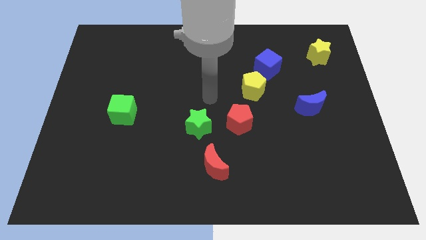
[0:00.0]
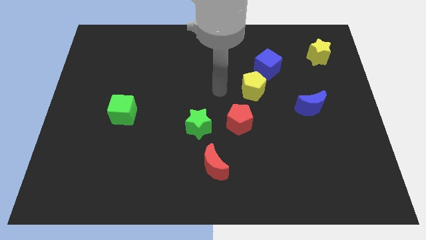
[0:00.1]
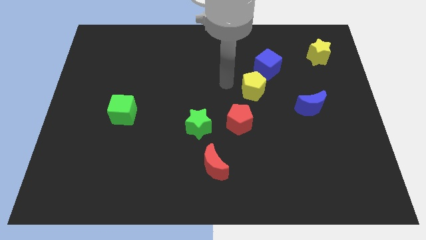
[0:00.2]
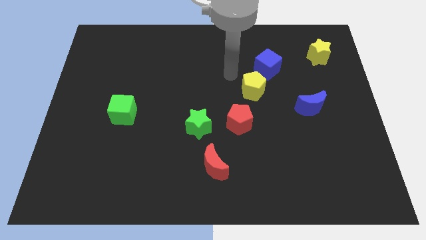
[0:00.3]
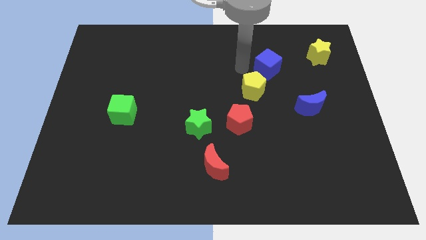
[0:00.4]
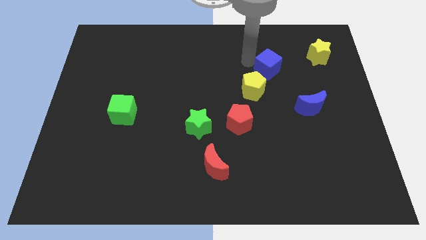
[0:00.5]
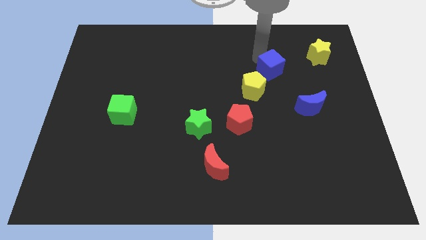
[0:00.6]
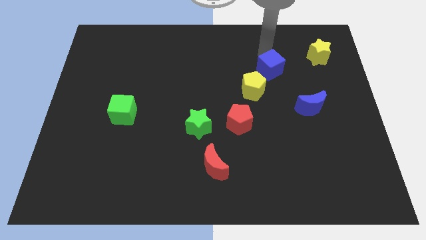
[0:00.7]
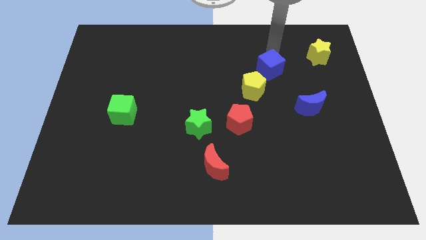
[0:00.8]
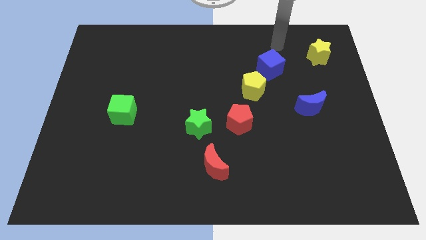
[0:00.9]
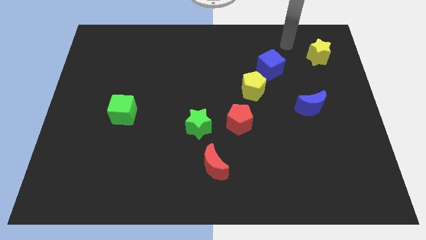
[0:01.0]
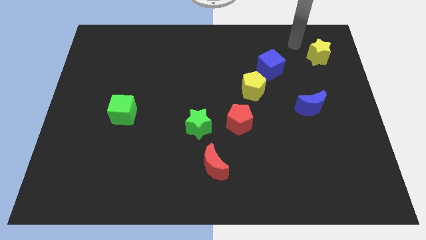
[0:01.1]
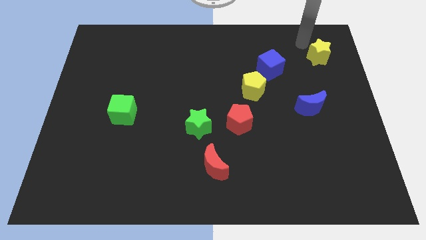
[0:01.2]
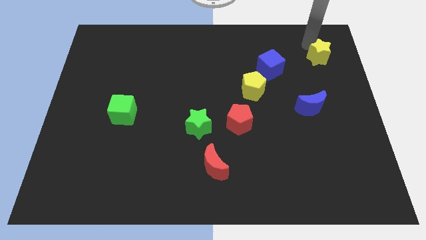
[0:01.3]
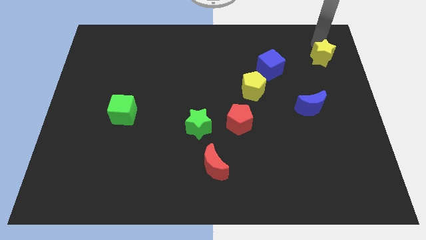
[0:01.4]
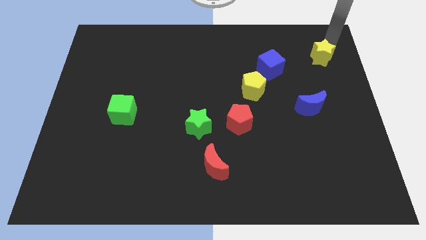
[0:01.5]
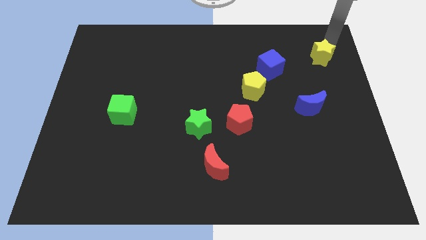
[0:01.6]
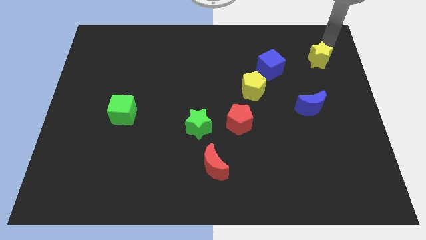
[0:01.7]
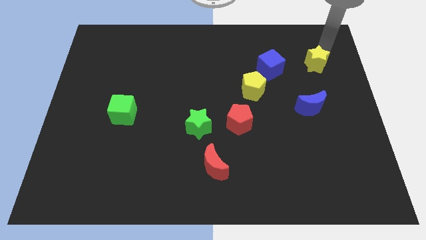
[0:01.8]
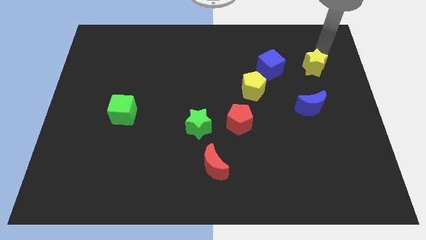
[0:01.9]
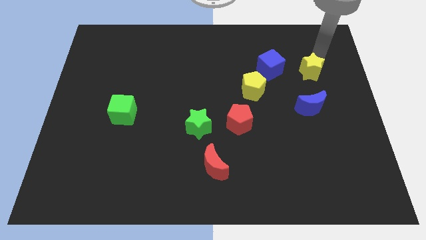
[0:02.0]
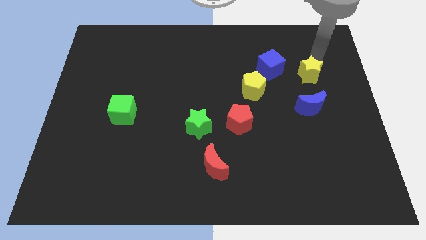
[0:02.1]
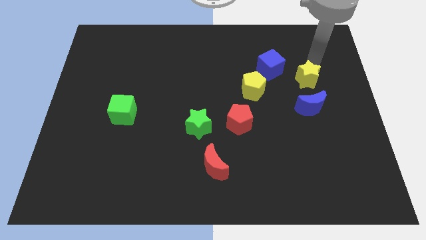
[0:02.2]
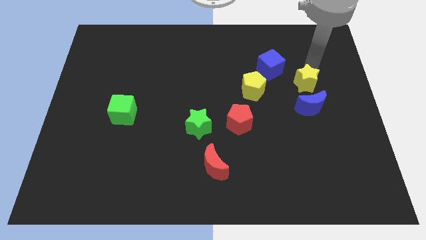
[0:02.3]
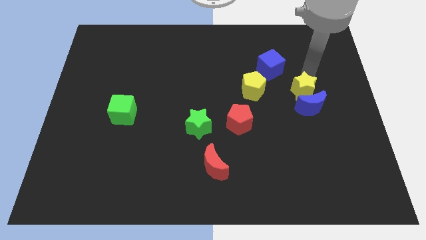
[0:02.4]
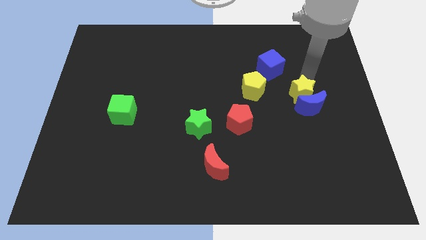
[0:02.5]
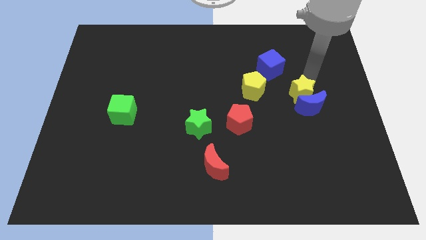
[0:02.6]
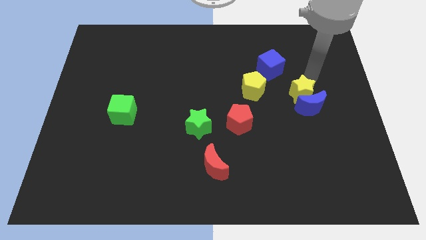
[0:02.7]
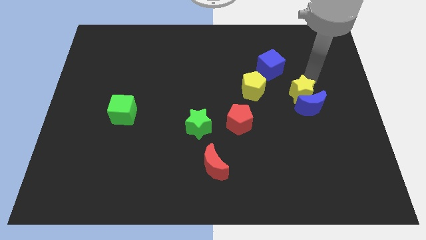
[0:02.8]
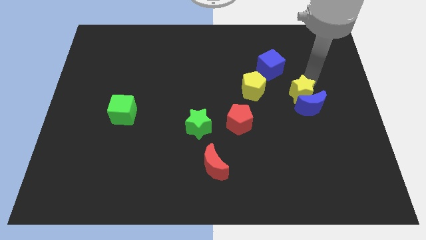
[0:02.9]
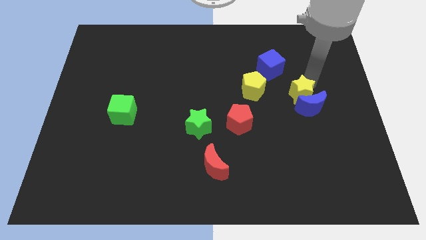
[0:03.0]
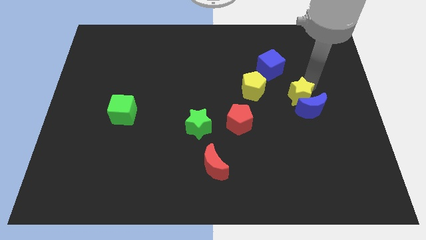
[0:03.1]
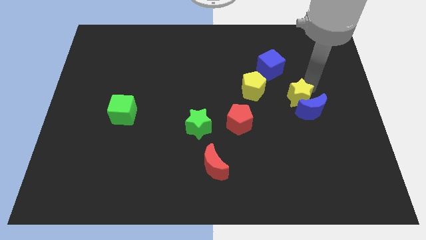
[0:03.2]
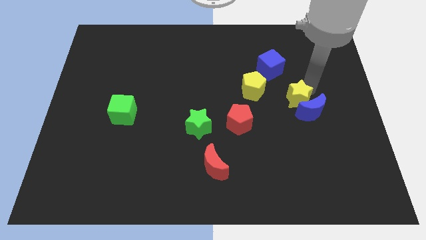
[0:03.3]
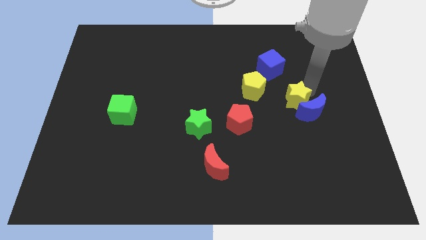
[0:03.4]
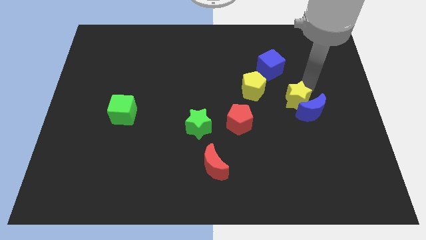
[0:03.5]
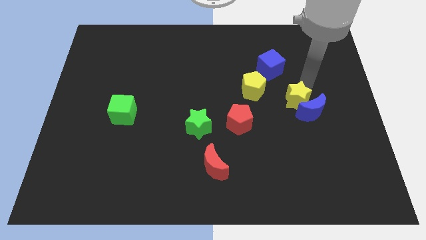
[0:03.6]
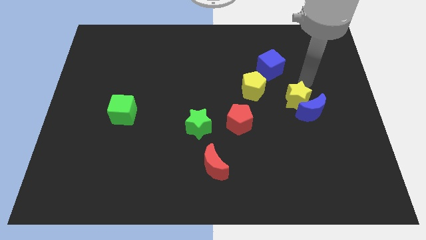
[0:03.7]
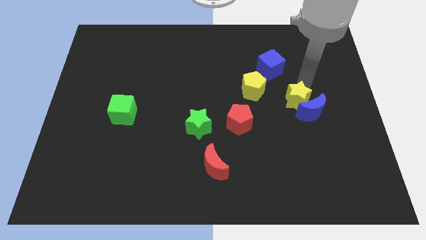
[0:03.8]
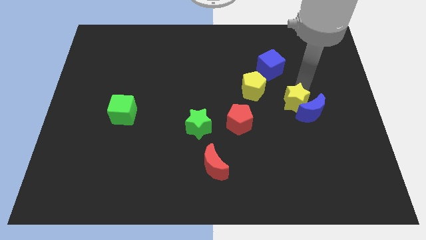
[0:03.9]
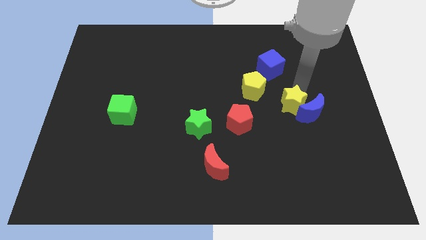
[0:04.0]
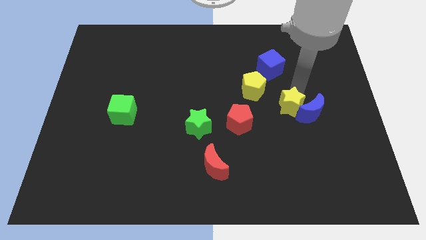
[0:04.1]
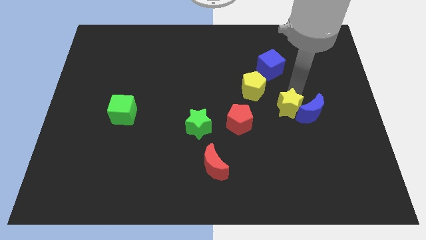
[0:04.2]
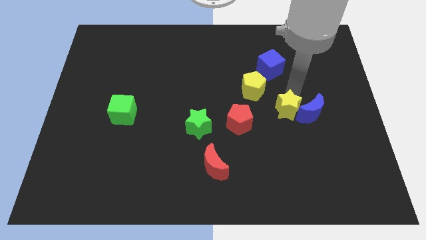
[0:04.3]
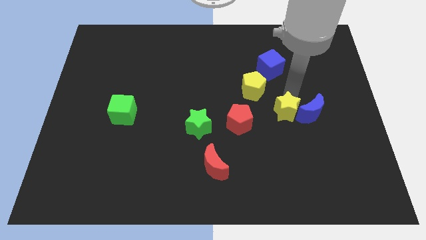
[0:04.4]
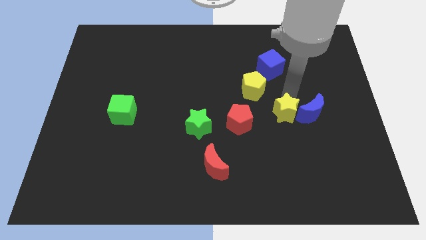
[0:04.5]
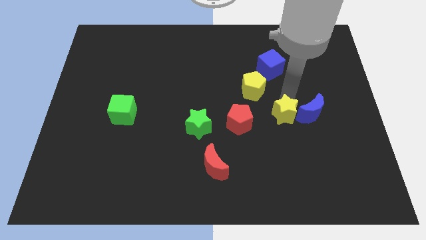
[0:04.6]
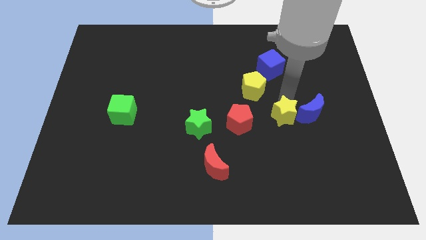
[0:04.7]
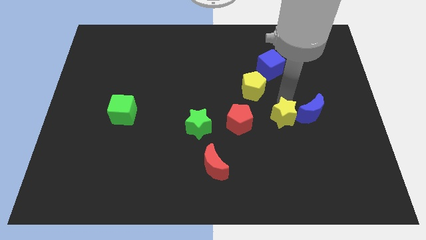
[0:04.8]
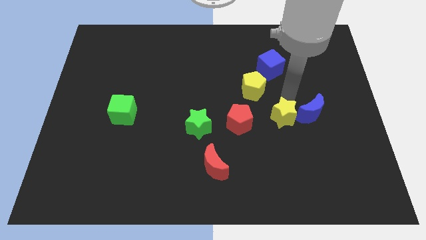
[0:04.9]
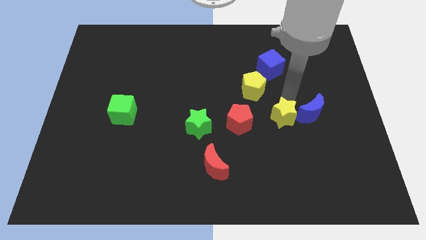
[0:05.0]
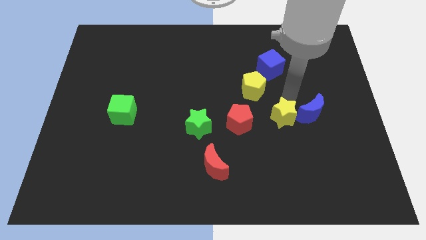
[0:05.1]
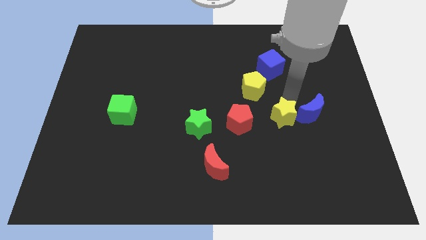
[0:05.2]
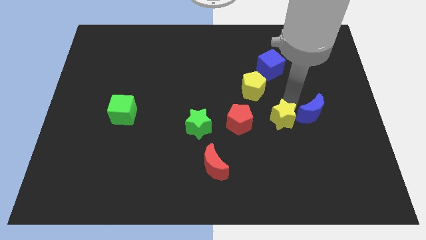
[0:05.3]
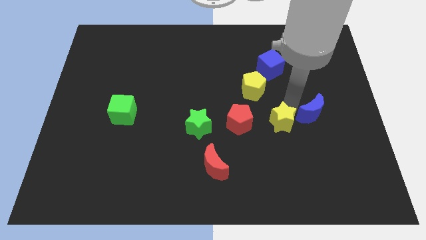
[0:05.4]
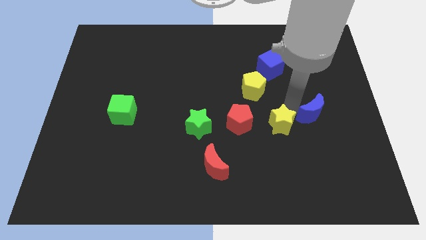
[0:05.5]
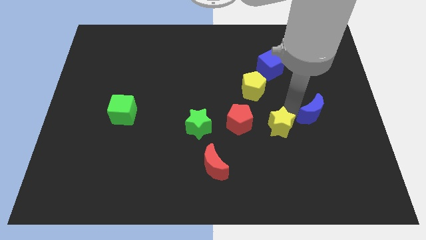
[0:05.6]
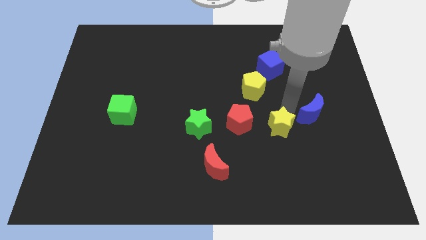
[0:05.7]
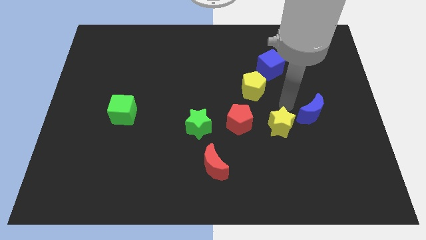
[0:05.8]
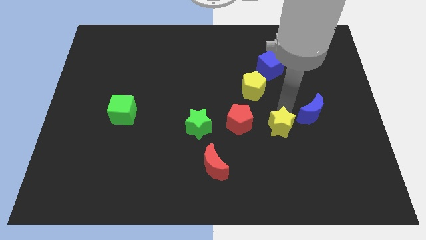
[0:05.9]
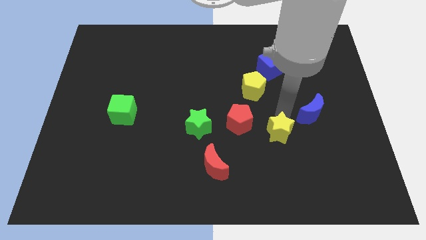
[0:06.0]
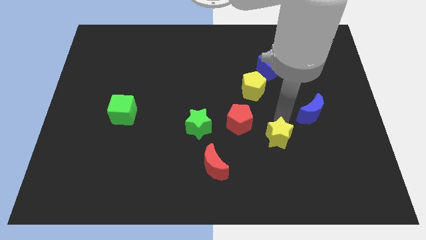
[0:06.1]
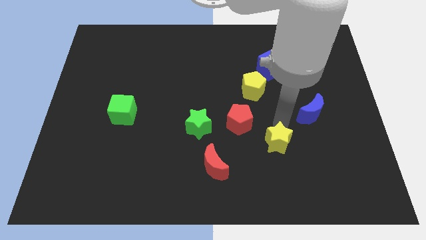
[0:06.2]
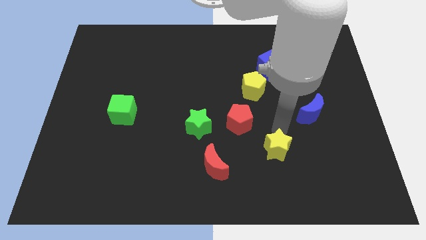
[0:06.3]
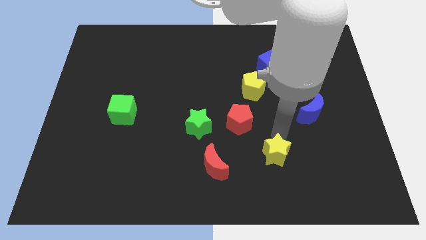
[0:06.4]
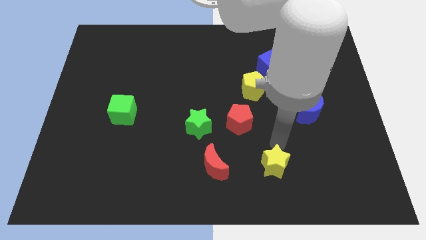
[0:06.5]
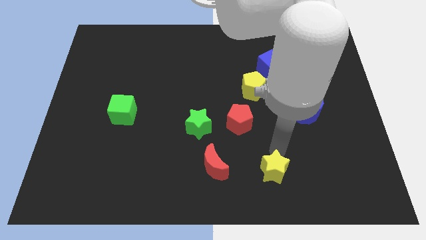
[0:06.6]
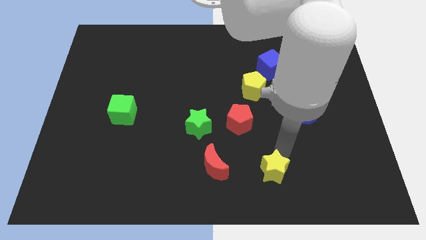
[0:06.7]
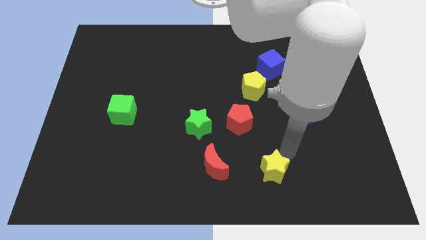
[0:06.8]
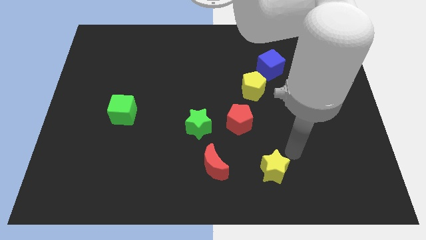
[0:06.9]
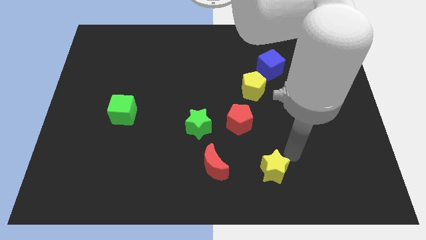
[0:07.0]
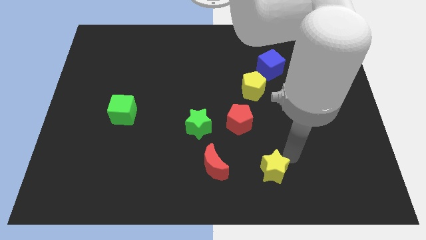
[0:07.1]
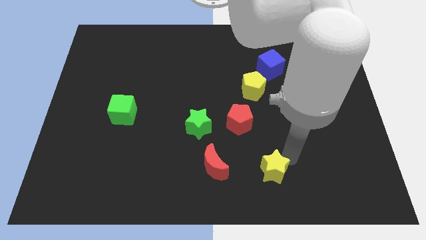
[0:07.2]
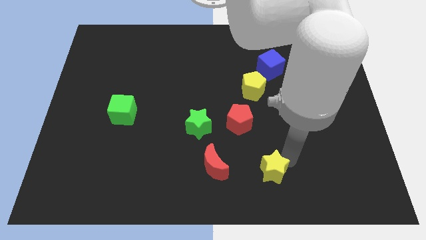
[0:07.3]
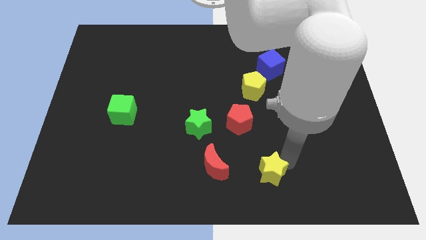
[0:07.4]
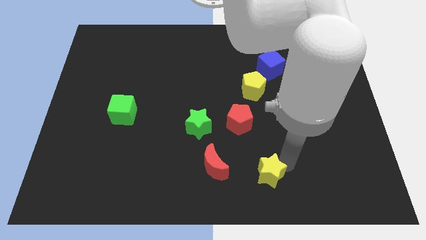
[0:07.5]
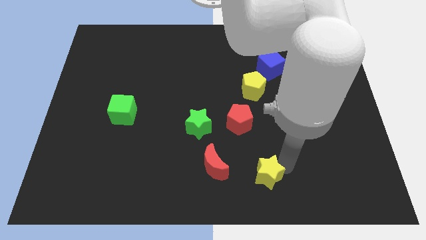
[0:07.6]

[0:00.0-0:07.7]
move the yellow star to the bottom
